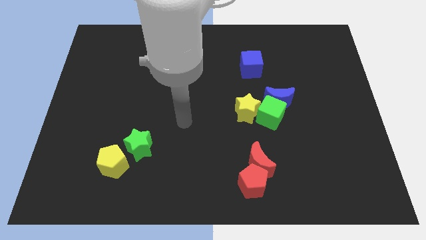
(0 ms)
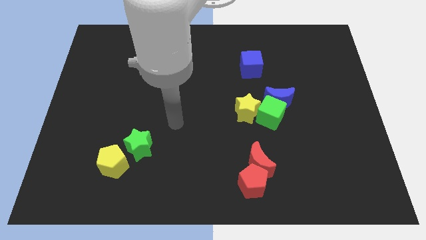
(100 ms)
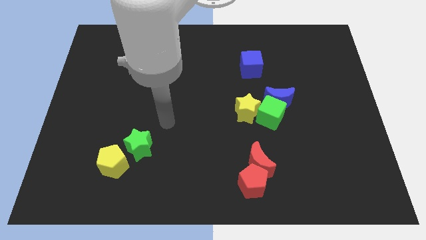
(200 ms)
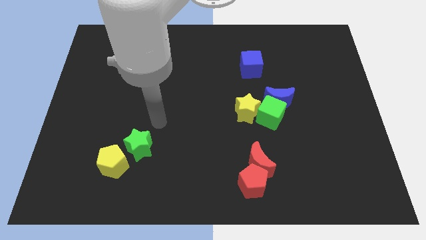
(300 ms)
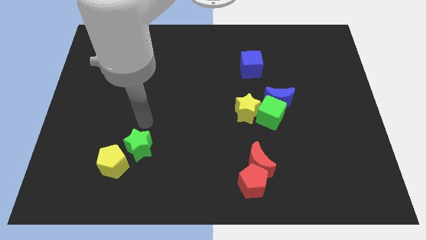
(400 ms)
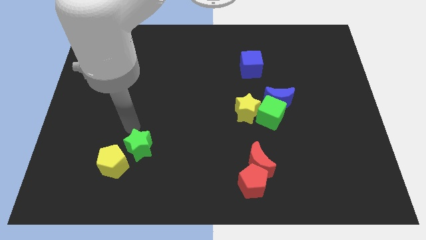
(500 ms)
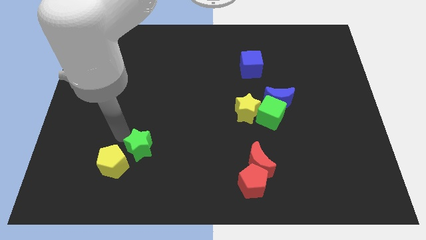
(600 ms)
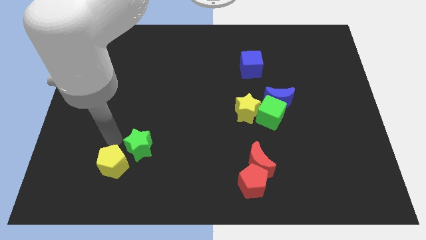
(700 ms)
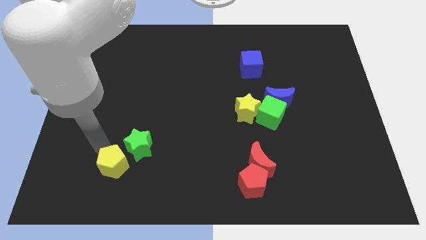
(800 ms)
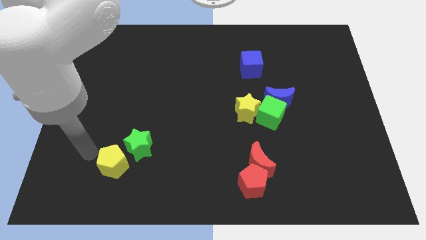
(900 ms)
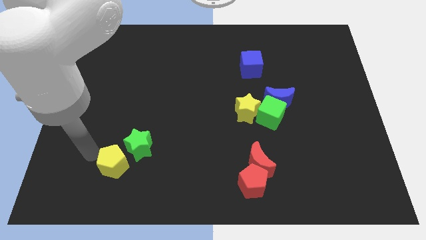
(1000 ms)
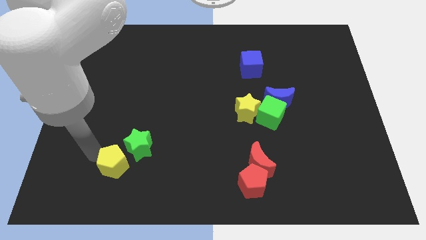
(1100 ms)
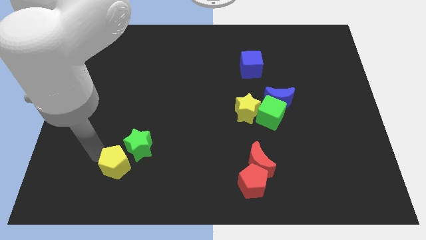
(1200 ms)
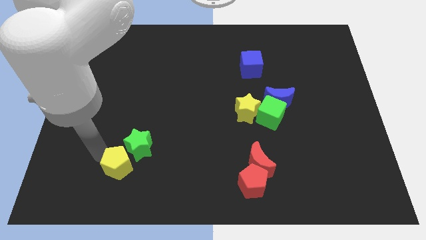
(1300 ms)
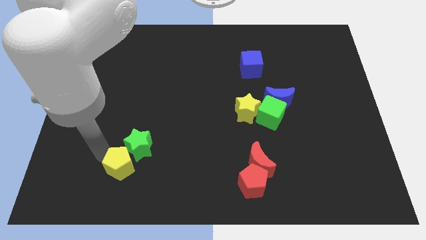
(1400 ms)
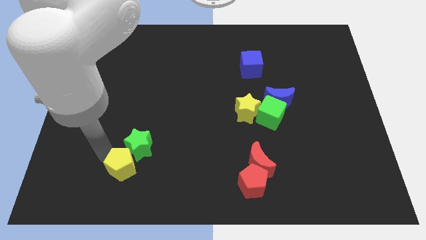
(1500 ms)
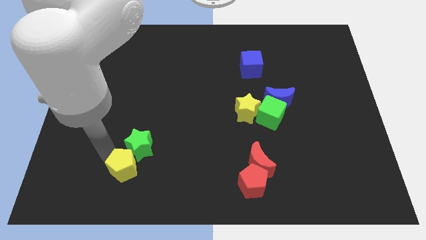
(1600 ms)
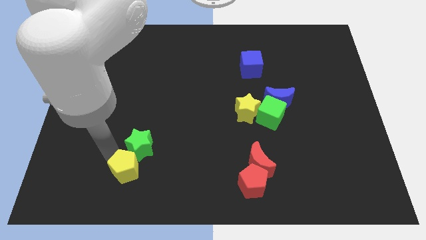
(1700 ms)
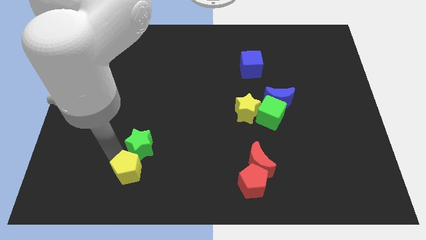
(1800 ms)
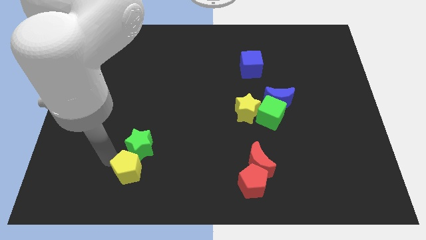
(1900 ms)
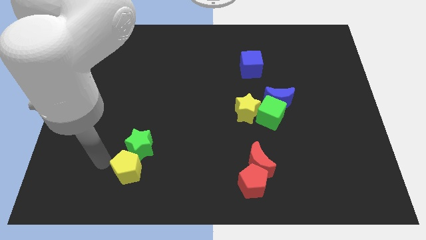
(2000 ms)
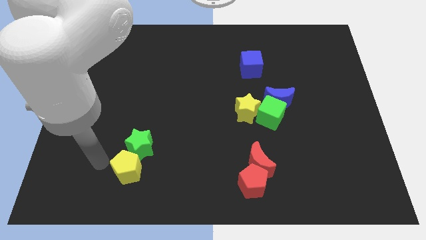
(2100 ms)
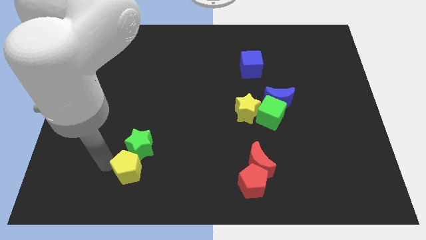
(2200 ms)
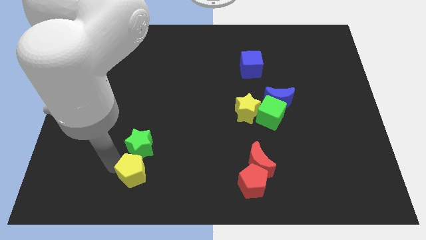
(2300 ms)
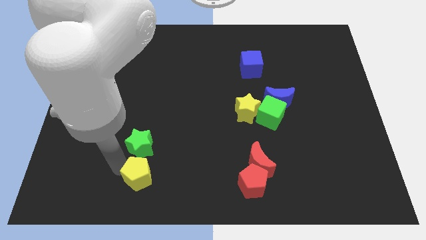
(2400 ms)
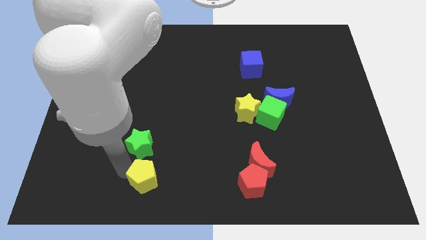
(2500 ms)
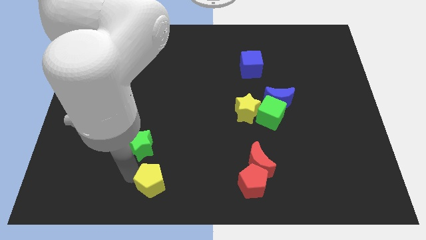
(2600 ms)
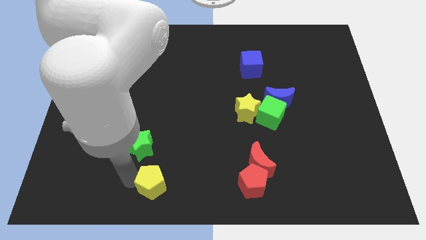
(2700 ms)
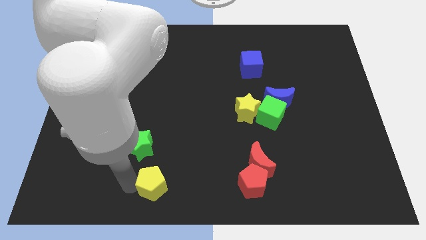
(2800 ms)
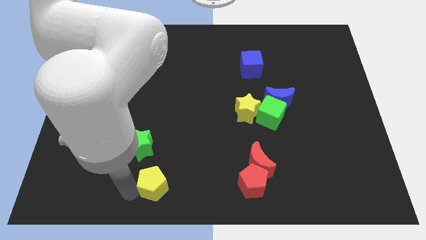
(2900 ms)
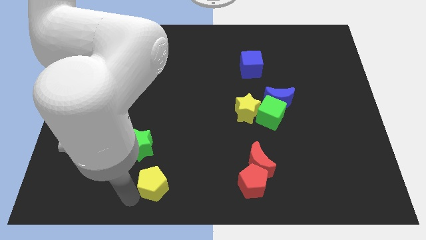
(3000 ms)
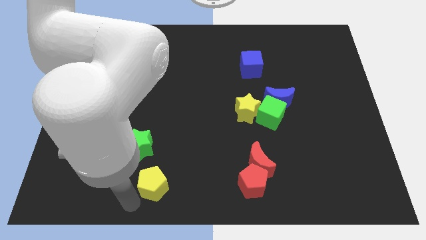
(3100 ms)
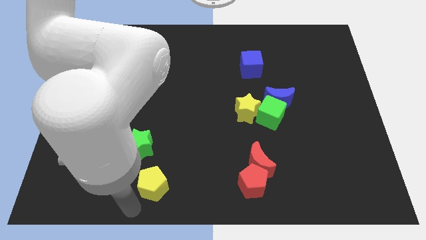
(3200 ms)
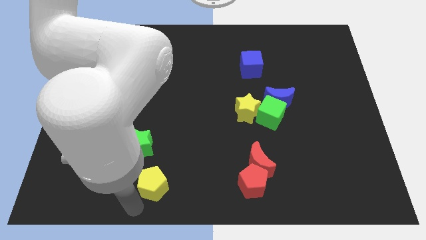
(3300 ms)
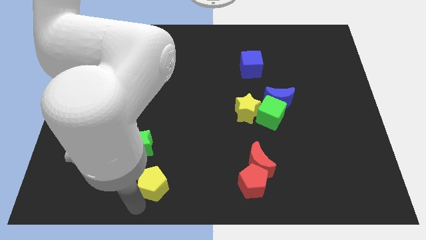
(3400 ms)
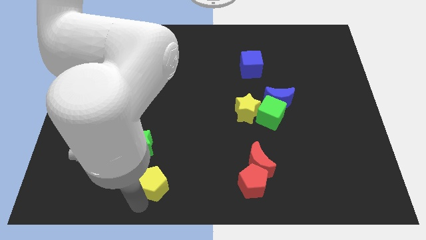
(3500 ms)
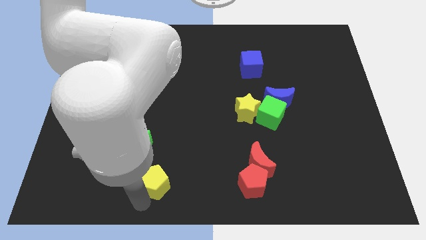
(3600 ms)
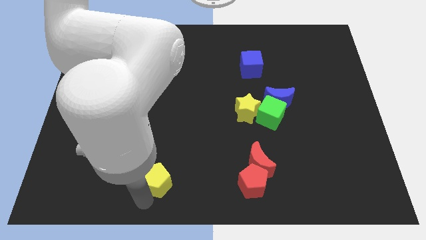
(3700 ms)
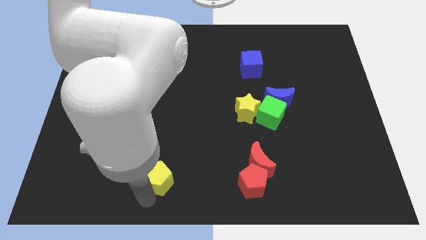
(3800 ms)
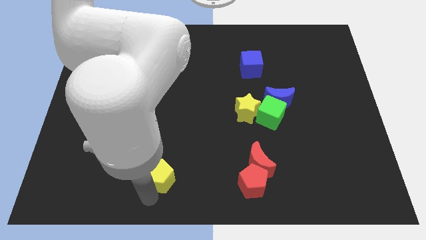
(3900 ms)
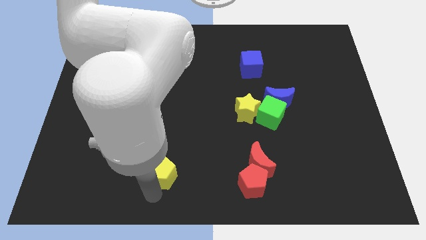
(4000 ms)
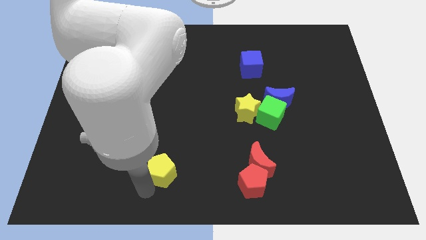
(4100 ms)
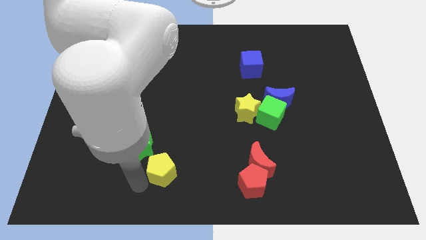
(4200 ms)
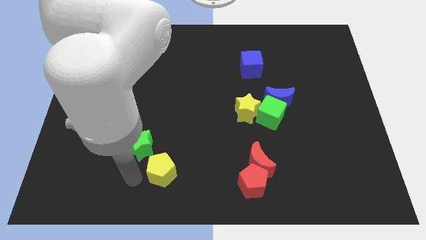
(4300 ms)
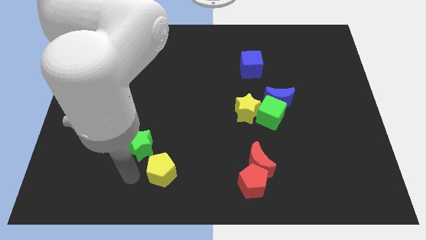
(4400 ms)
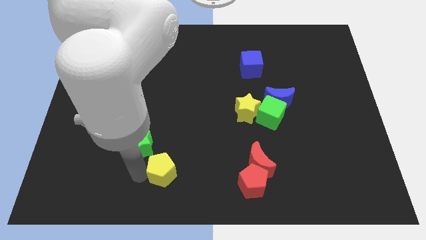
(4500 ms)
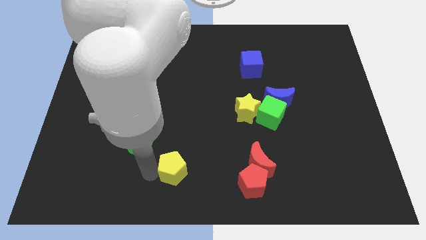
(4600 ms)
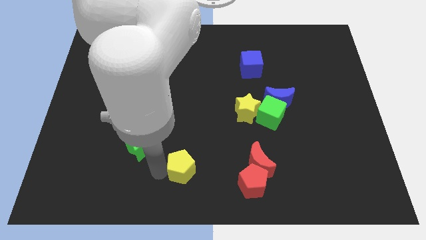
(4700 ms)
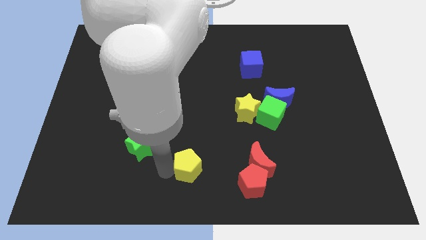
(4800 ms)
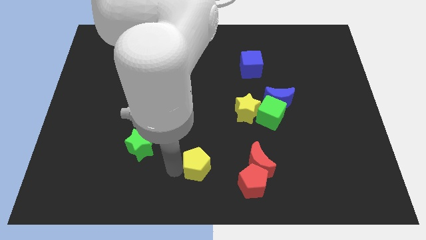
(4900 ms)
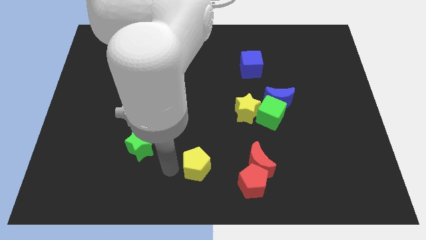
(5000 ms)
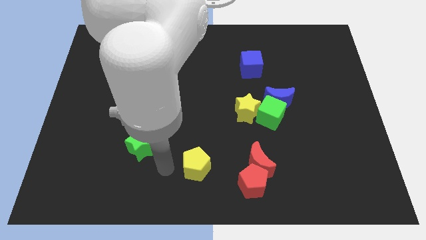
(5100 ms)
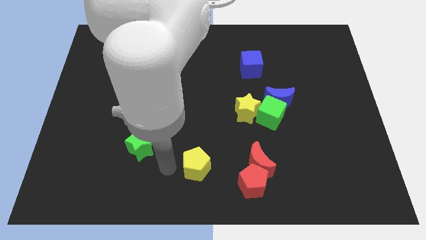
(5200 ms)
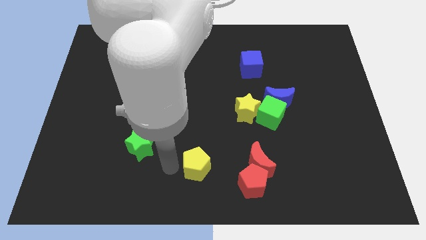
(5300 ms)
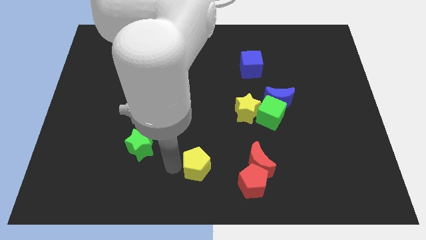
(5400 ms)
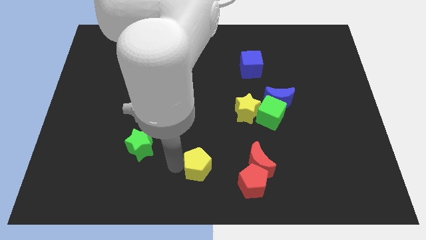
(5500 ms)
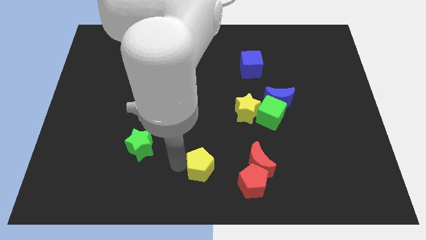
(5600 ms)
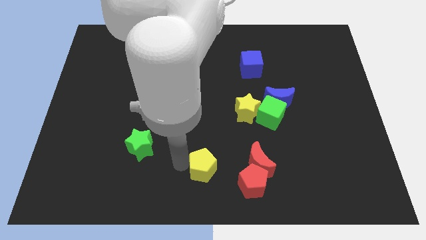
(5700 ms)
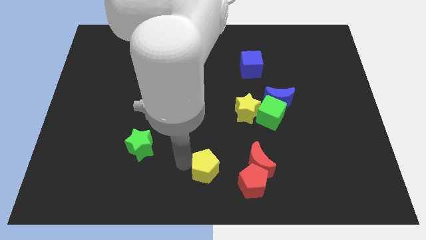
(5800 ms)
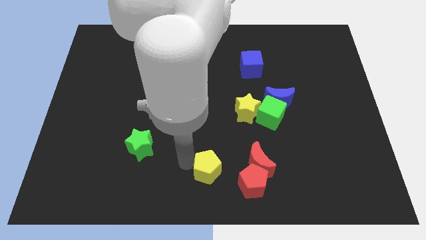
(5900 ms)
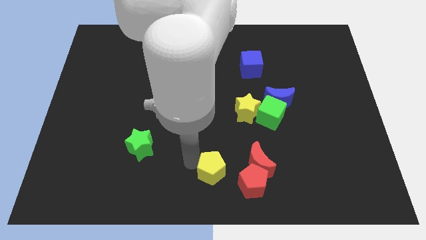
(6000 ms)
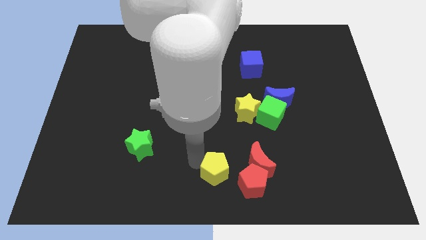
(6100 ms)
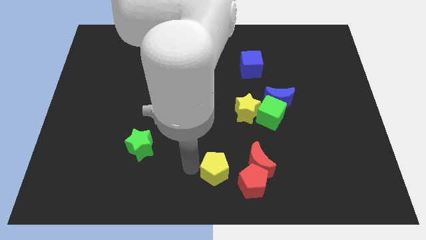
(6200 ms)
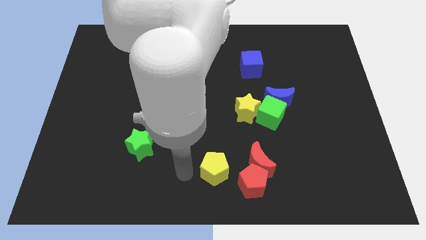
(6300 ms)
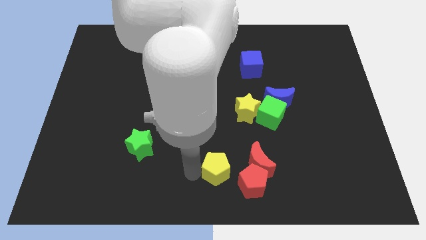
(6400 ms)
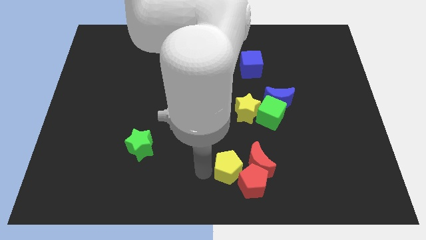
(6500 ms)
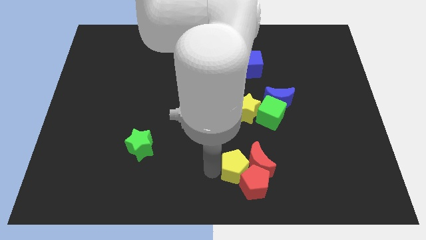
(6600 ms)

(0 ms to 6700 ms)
slide the yellow pentagon close to the red moon
